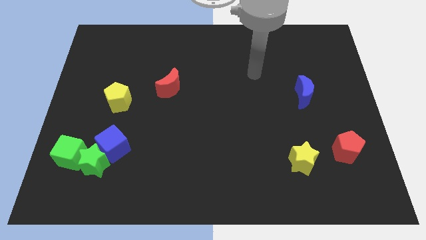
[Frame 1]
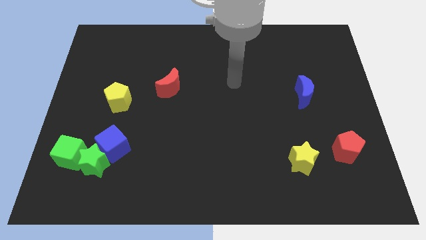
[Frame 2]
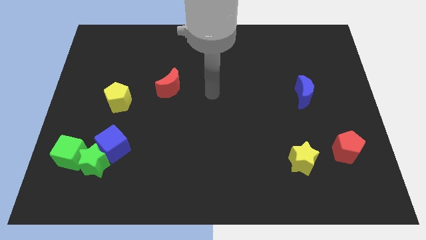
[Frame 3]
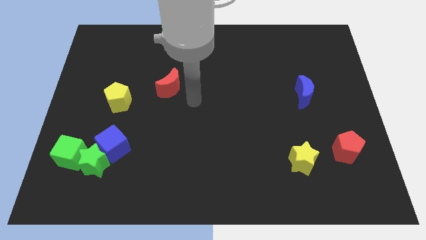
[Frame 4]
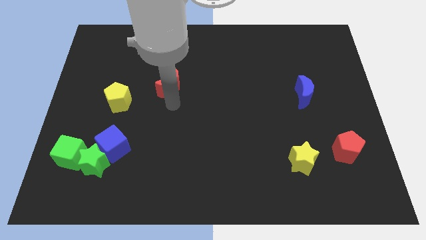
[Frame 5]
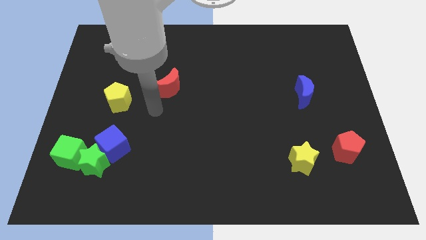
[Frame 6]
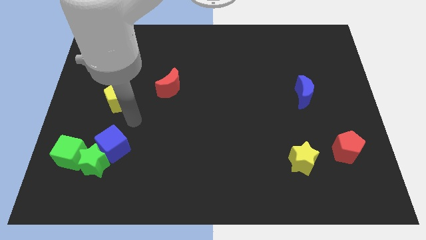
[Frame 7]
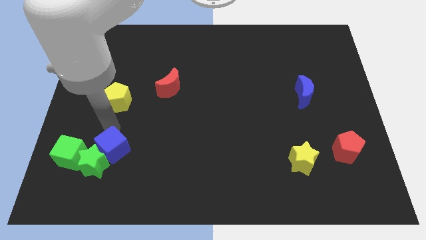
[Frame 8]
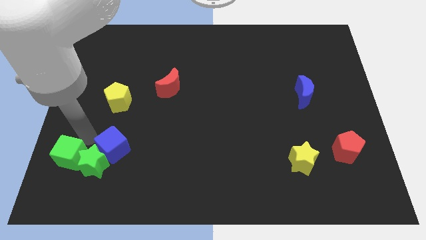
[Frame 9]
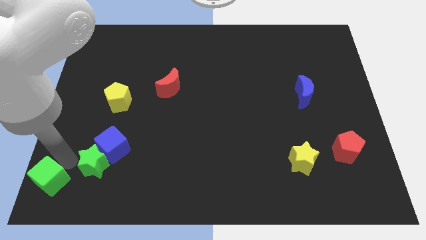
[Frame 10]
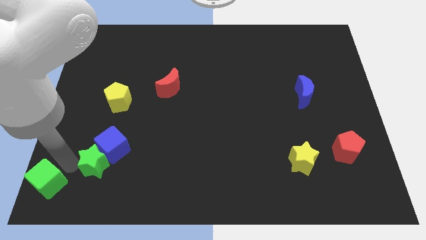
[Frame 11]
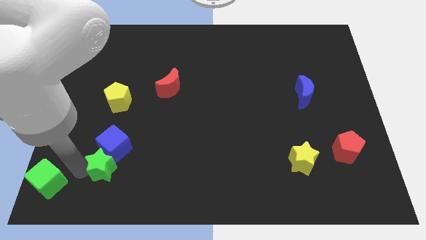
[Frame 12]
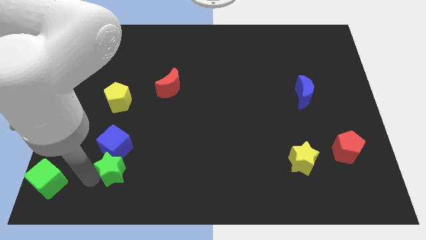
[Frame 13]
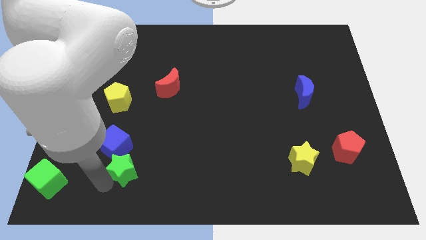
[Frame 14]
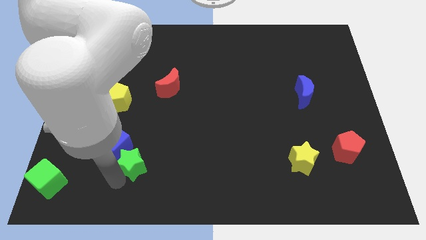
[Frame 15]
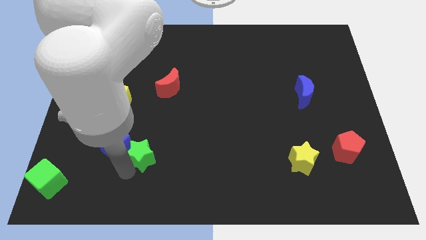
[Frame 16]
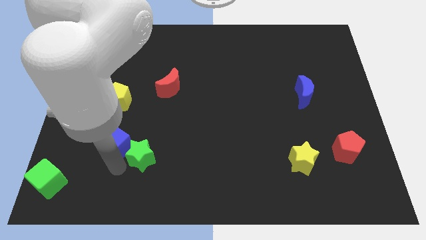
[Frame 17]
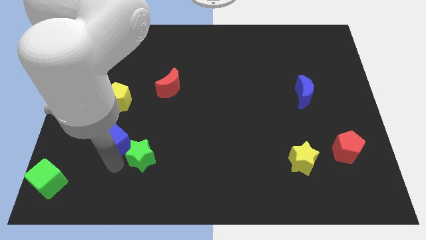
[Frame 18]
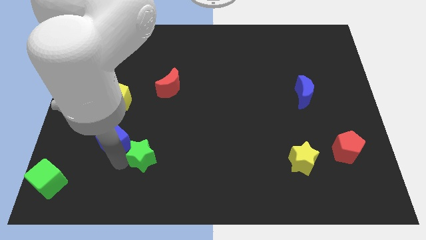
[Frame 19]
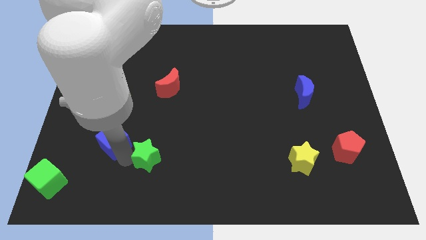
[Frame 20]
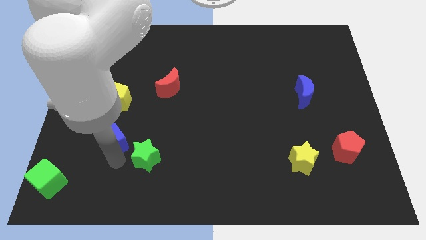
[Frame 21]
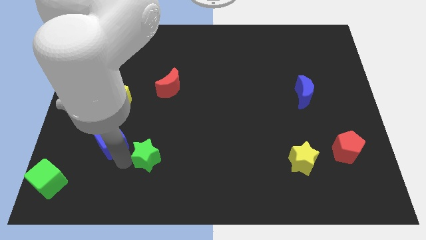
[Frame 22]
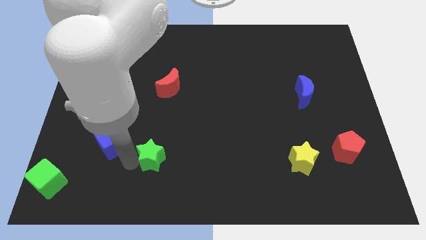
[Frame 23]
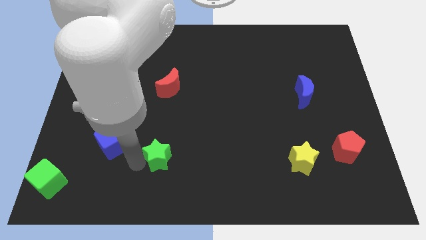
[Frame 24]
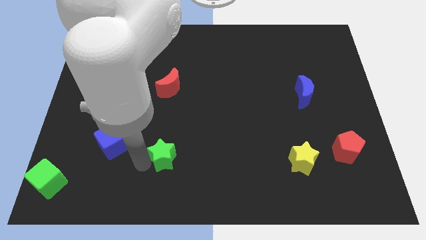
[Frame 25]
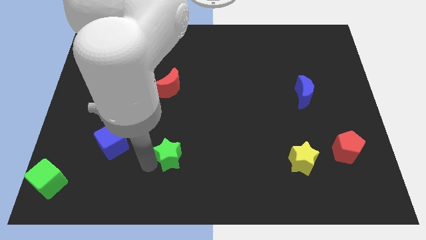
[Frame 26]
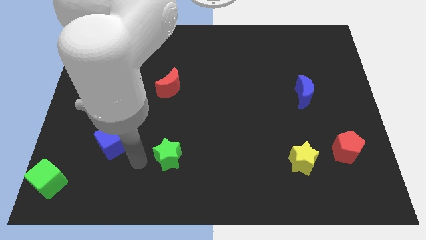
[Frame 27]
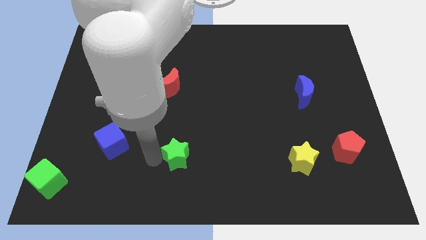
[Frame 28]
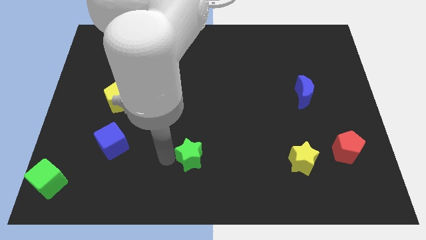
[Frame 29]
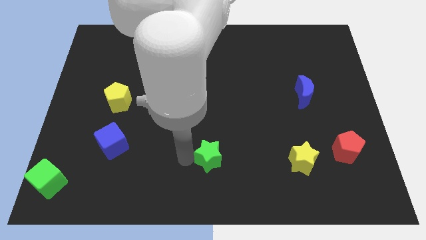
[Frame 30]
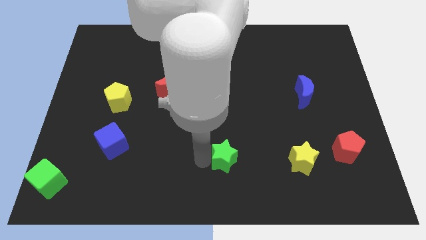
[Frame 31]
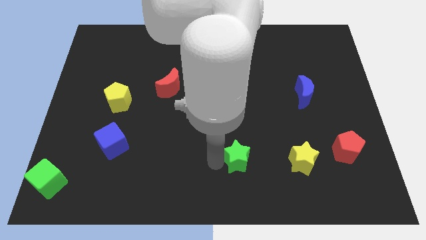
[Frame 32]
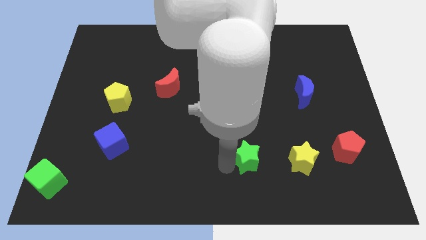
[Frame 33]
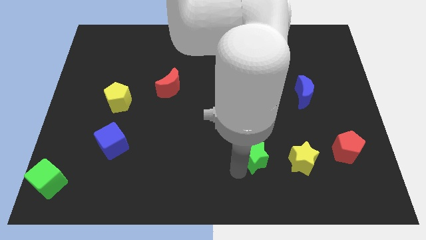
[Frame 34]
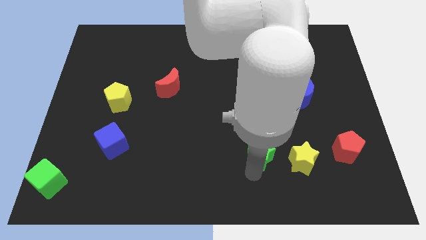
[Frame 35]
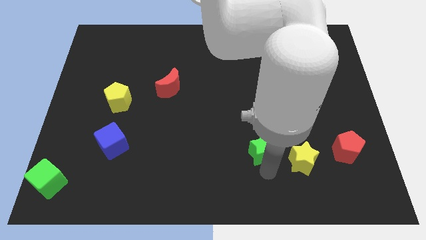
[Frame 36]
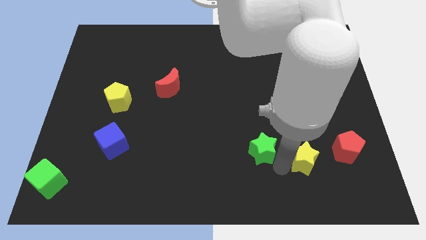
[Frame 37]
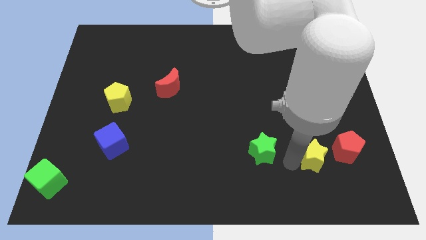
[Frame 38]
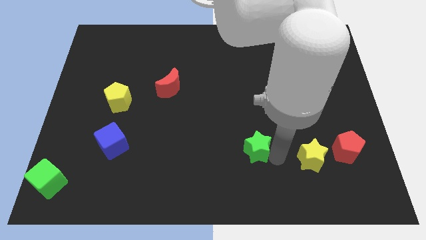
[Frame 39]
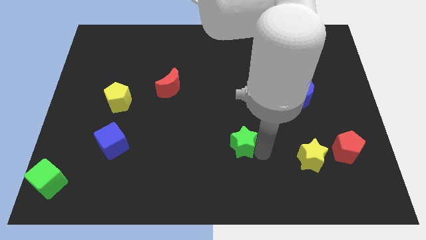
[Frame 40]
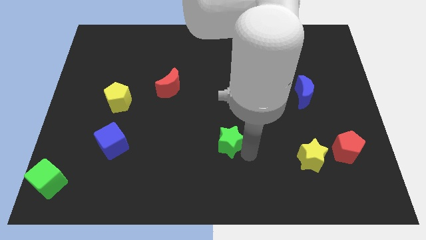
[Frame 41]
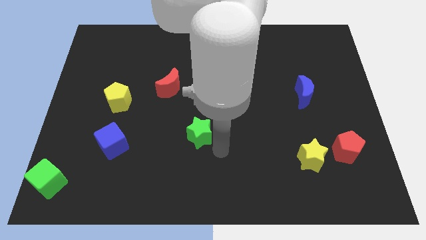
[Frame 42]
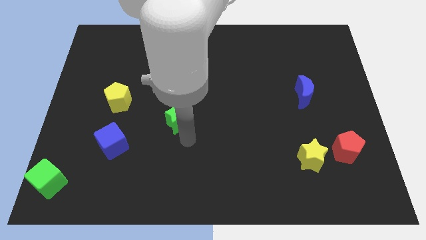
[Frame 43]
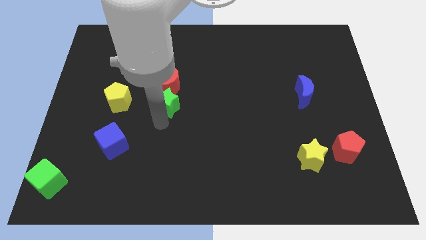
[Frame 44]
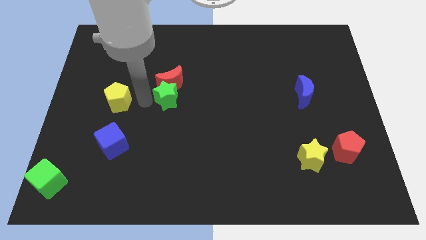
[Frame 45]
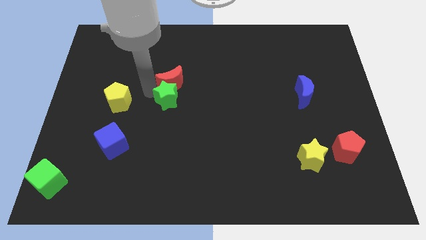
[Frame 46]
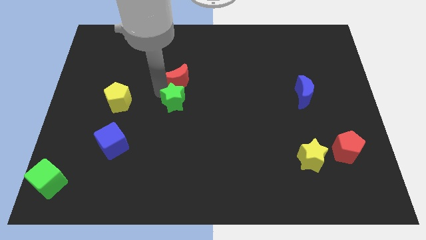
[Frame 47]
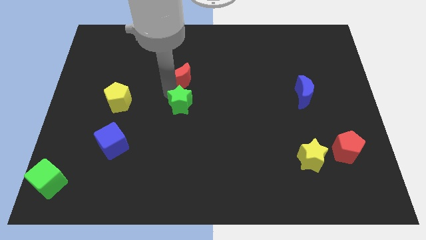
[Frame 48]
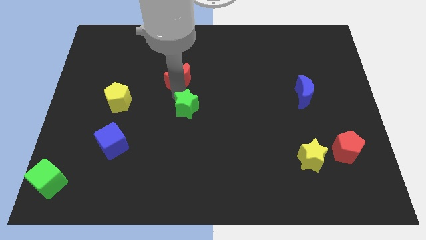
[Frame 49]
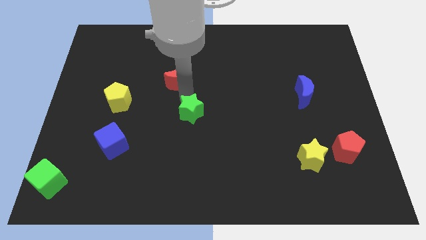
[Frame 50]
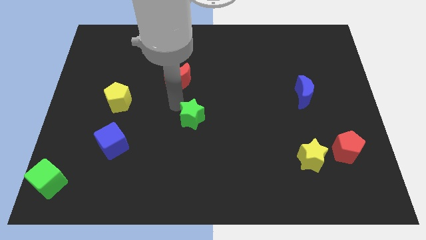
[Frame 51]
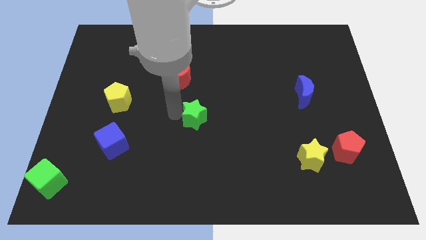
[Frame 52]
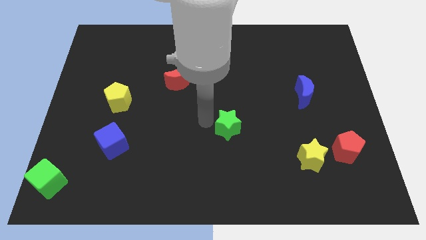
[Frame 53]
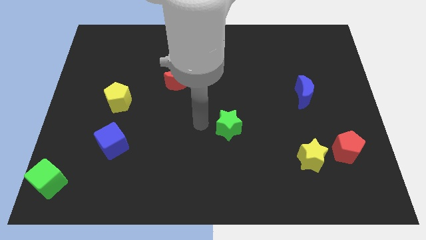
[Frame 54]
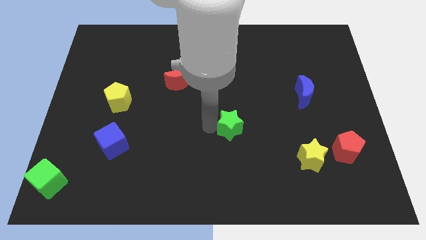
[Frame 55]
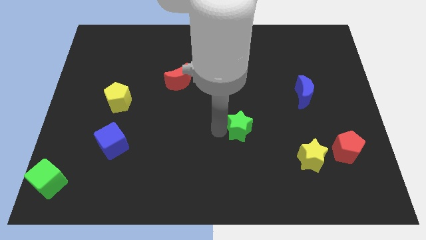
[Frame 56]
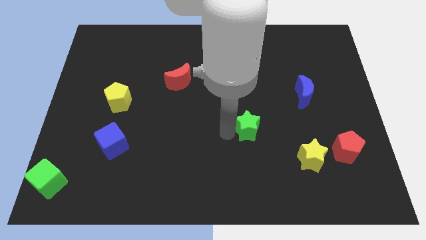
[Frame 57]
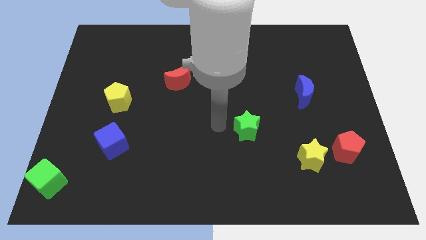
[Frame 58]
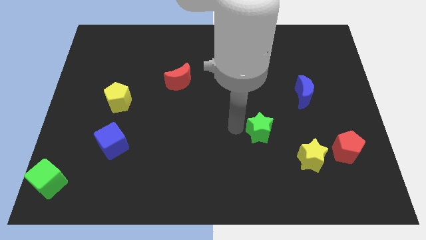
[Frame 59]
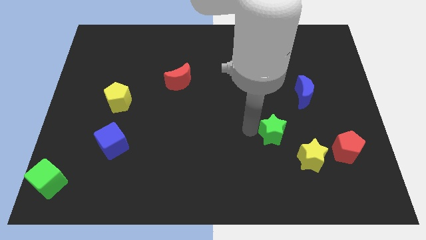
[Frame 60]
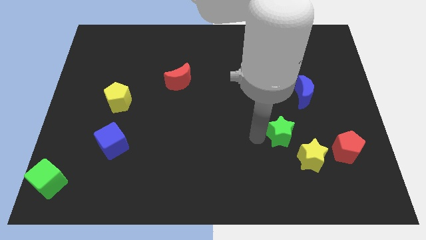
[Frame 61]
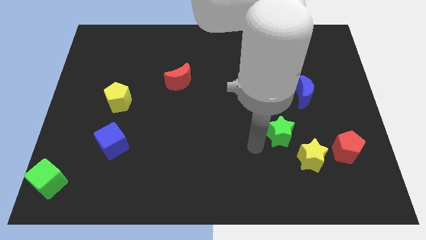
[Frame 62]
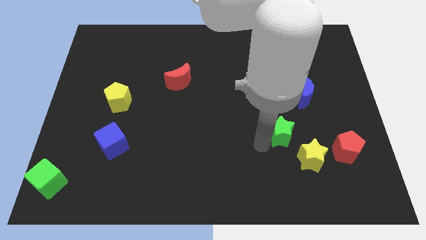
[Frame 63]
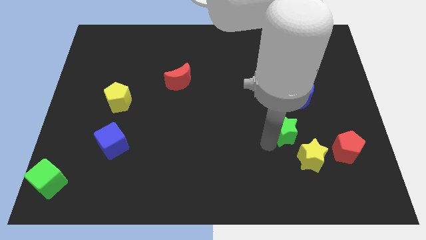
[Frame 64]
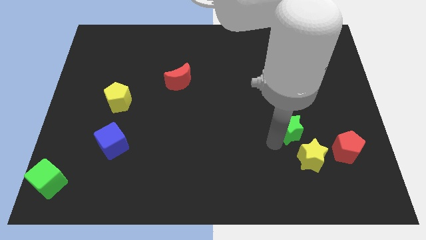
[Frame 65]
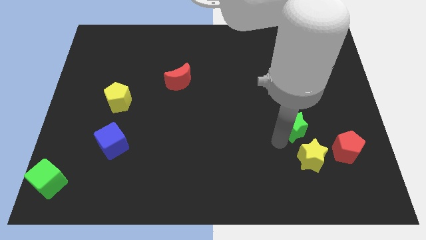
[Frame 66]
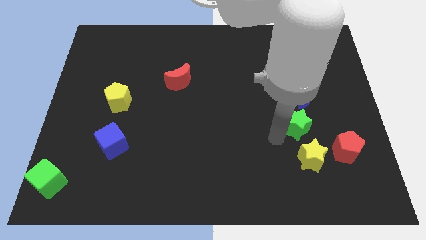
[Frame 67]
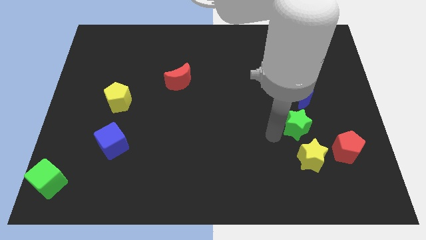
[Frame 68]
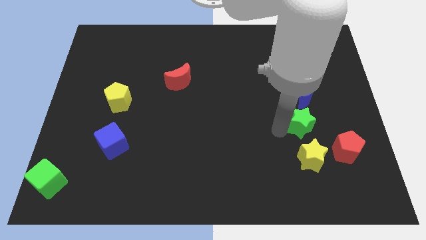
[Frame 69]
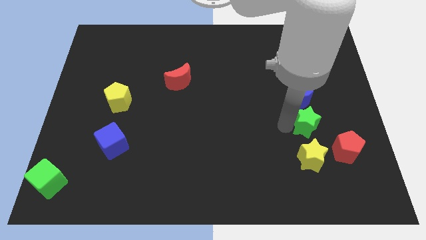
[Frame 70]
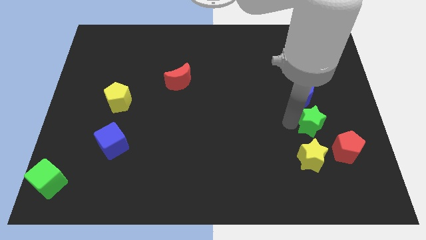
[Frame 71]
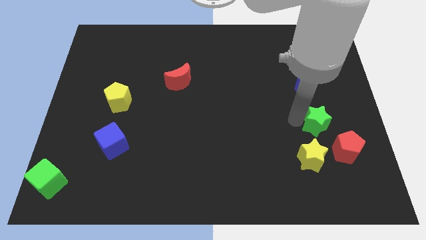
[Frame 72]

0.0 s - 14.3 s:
move the green star to the bottom right side of the blue moon
